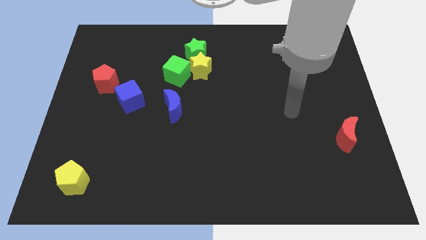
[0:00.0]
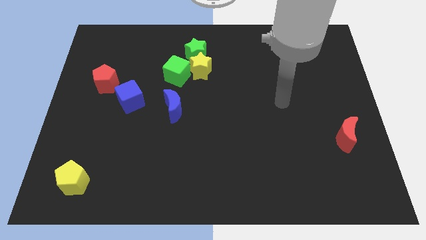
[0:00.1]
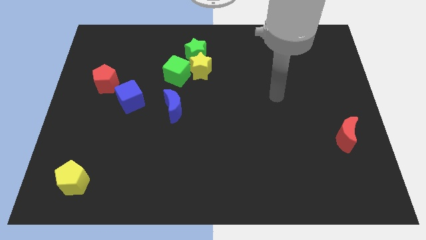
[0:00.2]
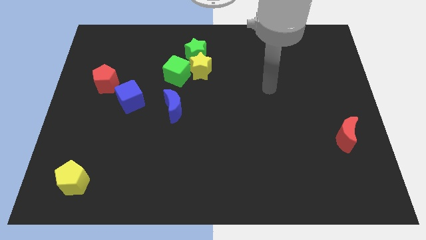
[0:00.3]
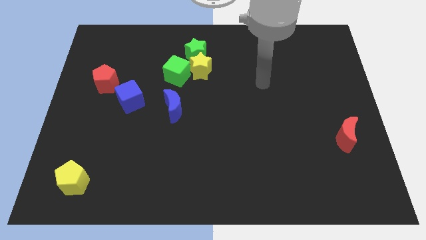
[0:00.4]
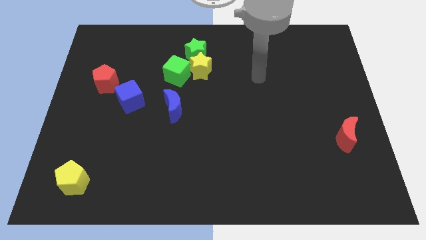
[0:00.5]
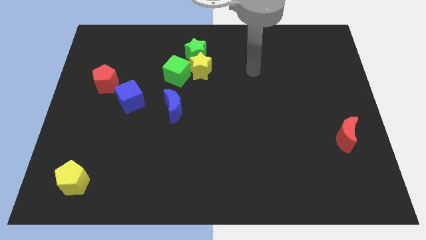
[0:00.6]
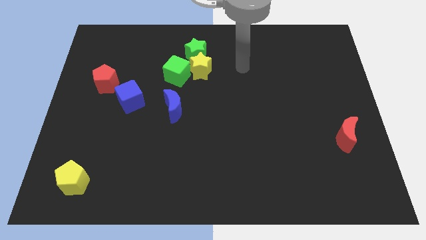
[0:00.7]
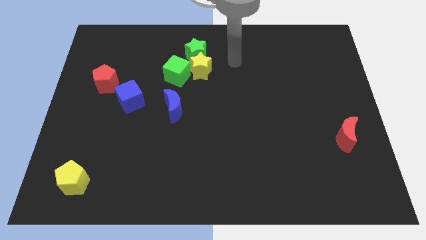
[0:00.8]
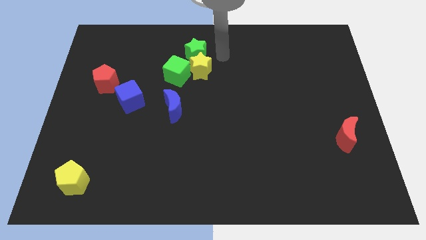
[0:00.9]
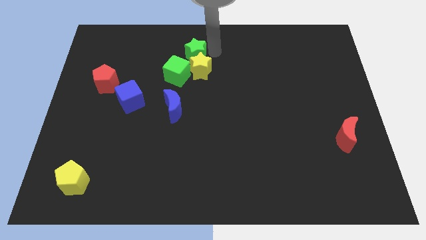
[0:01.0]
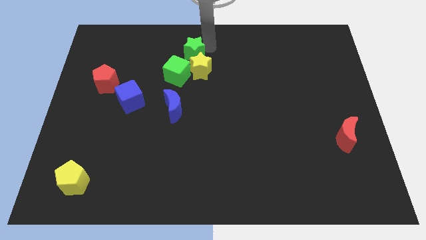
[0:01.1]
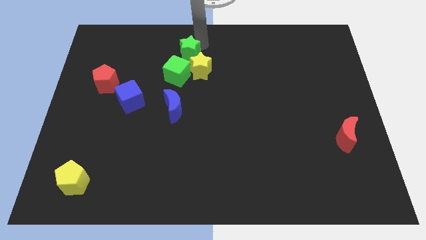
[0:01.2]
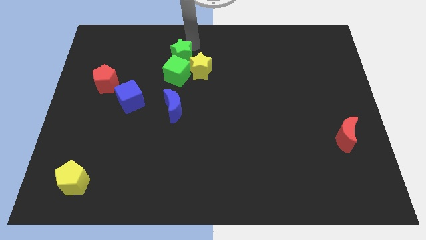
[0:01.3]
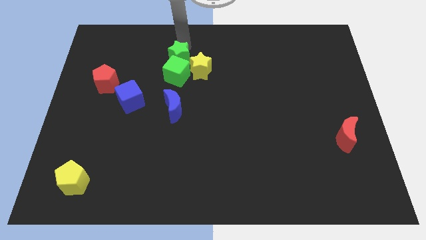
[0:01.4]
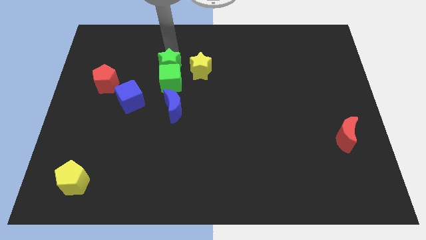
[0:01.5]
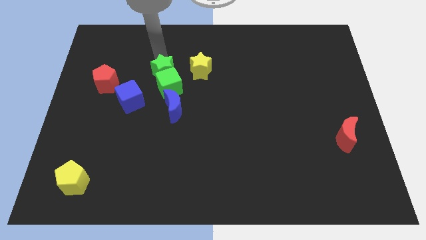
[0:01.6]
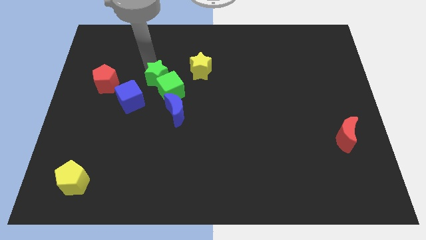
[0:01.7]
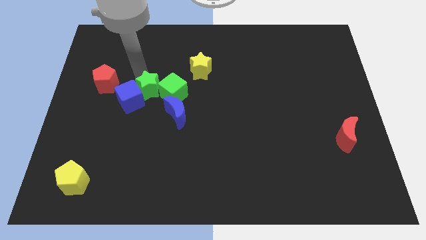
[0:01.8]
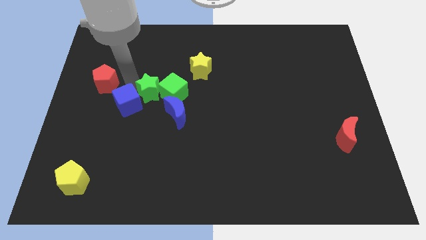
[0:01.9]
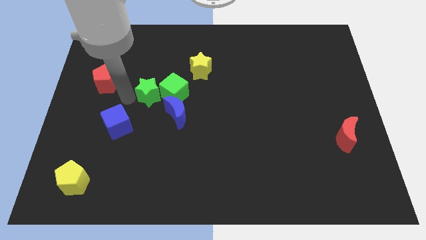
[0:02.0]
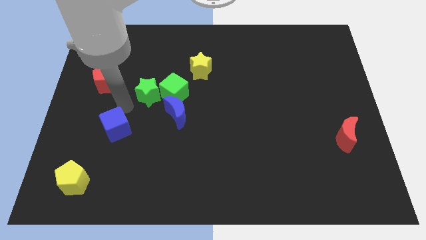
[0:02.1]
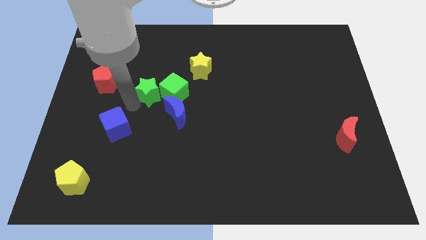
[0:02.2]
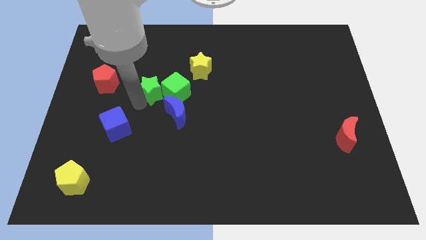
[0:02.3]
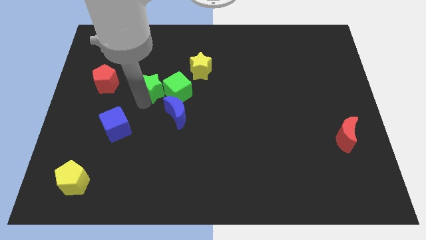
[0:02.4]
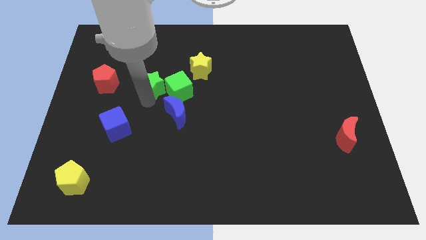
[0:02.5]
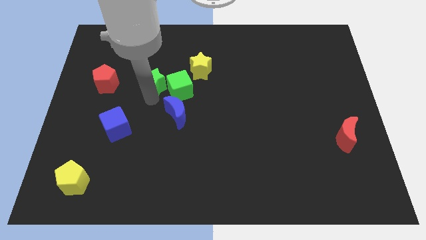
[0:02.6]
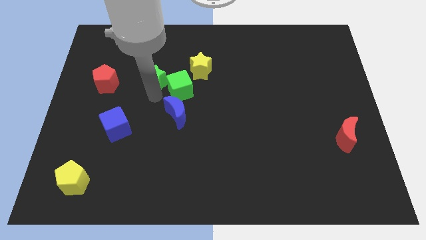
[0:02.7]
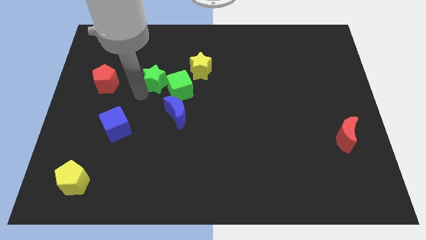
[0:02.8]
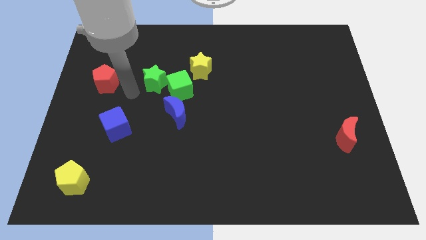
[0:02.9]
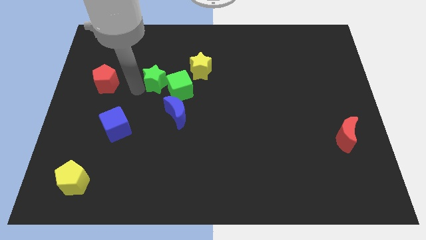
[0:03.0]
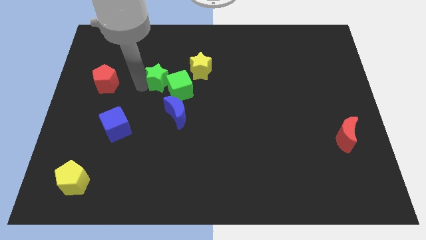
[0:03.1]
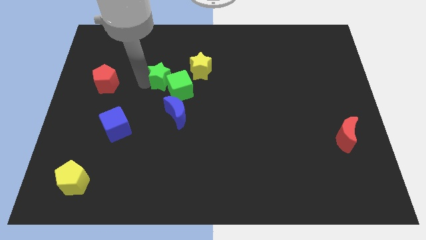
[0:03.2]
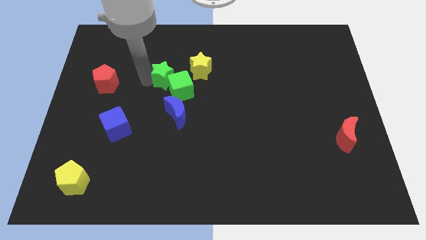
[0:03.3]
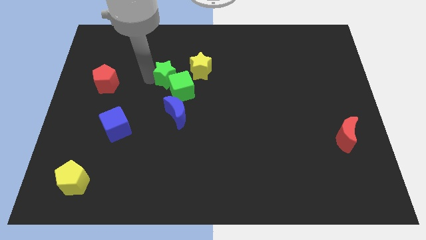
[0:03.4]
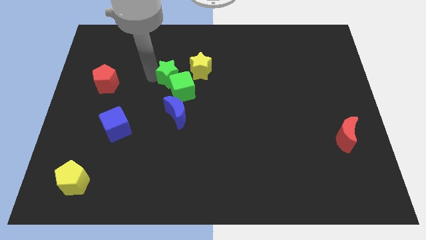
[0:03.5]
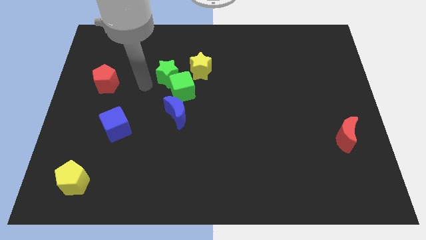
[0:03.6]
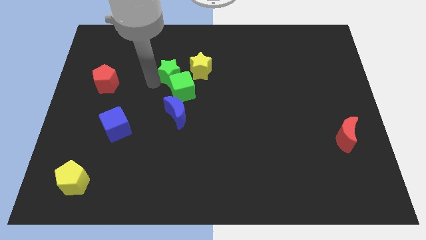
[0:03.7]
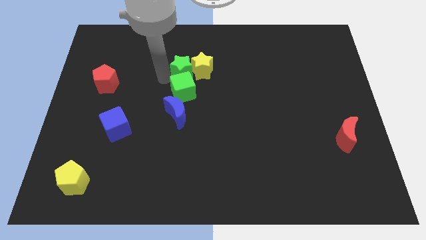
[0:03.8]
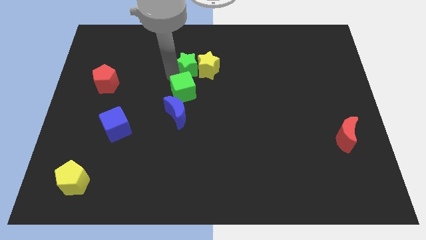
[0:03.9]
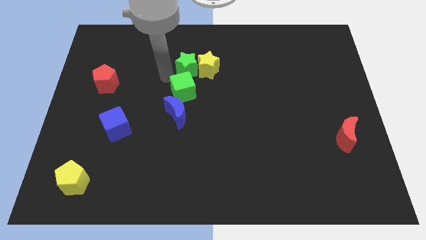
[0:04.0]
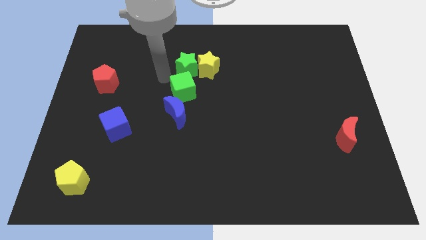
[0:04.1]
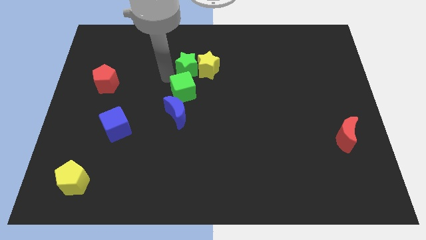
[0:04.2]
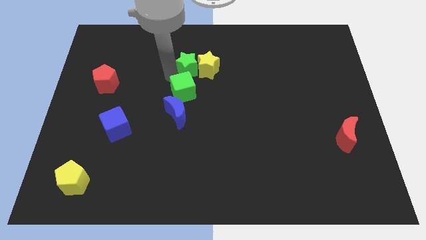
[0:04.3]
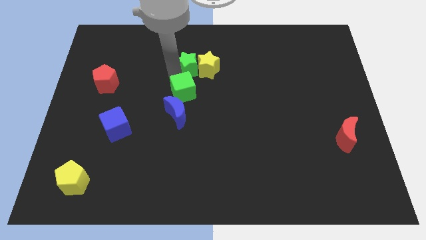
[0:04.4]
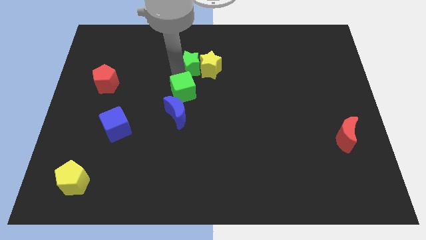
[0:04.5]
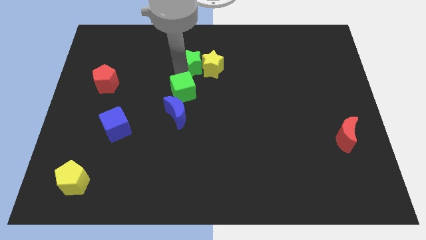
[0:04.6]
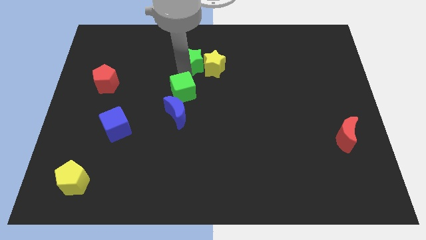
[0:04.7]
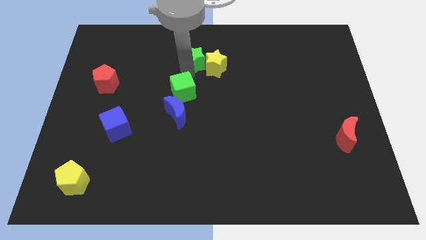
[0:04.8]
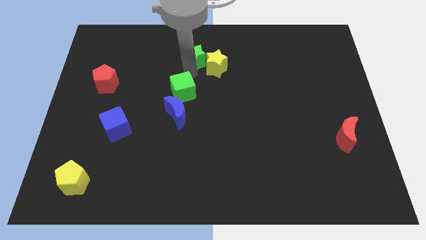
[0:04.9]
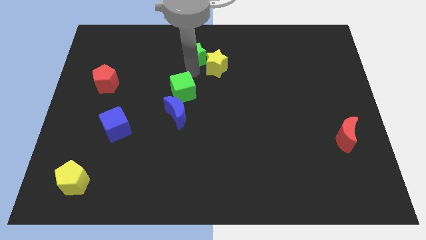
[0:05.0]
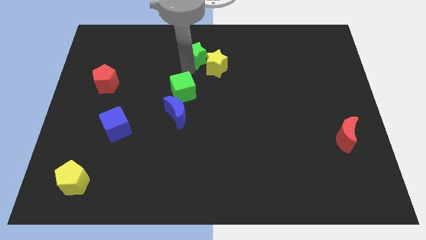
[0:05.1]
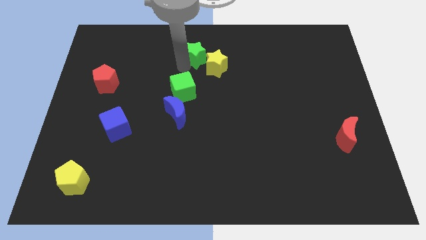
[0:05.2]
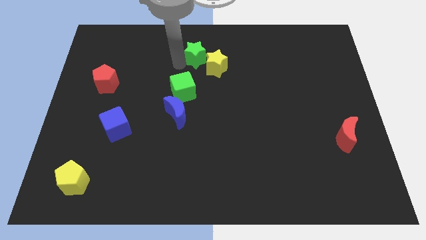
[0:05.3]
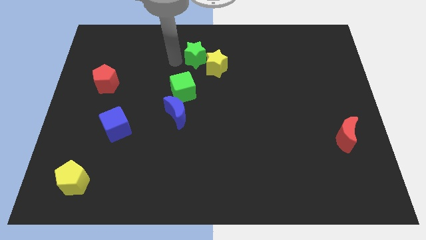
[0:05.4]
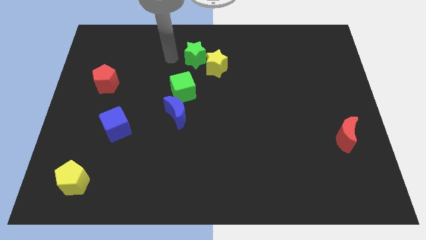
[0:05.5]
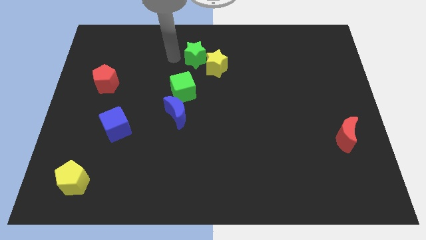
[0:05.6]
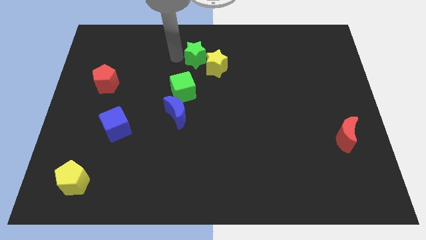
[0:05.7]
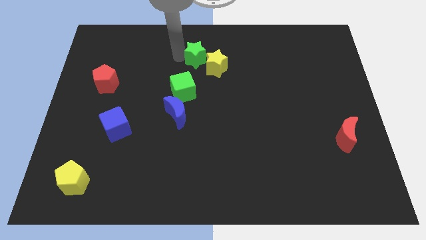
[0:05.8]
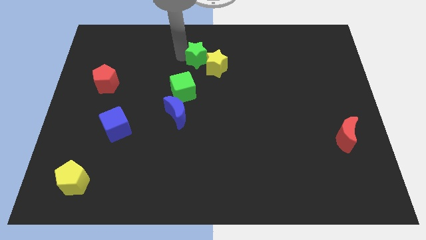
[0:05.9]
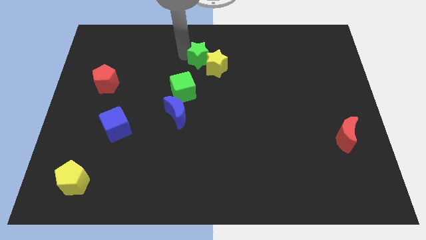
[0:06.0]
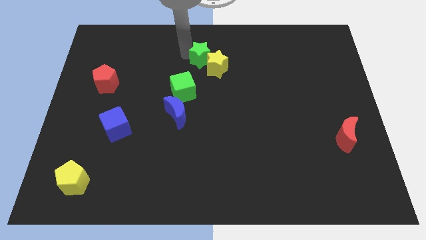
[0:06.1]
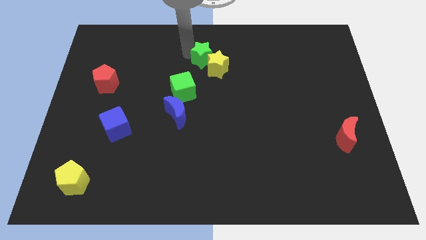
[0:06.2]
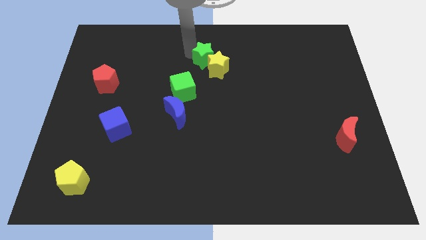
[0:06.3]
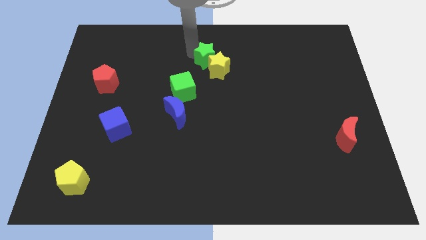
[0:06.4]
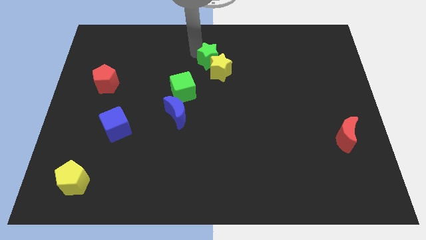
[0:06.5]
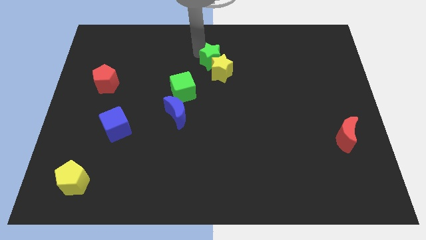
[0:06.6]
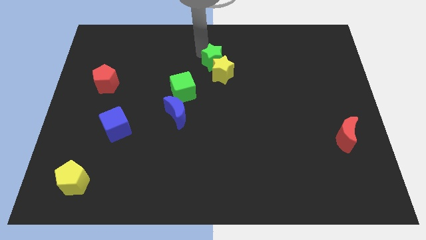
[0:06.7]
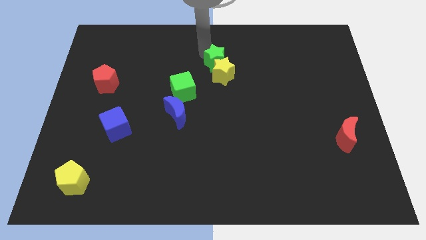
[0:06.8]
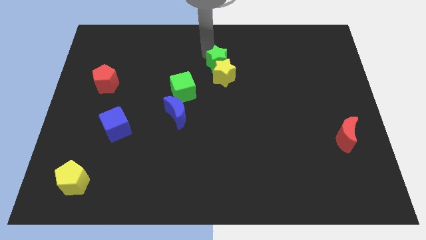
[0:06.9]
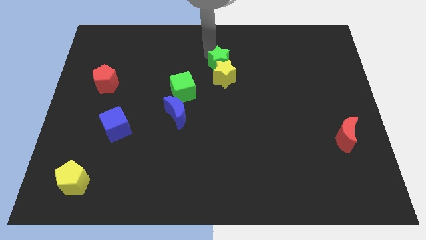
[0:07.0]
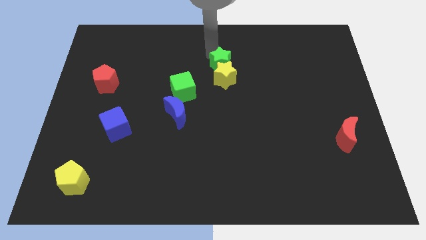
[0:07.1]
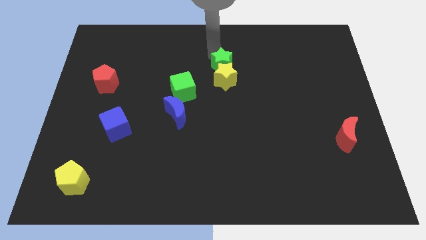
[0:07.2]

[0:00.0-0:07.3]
move the green star slightly downwards and to the right diagonally

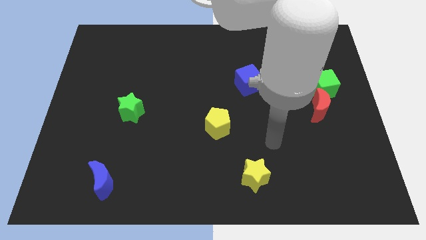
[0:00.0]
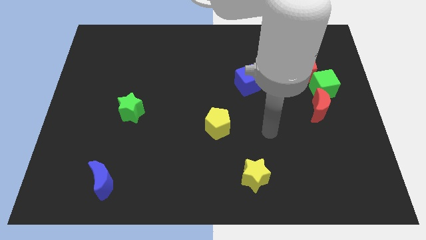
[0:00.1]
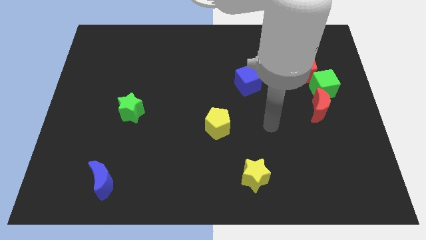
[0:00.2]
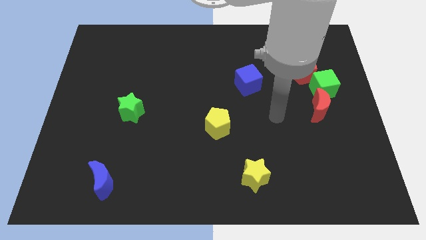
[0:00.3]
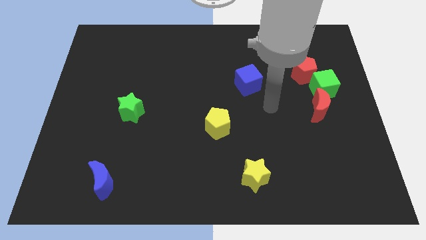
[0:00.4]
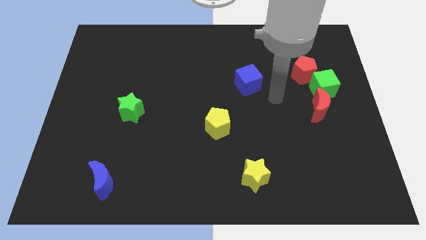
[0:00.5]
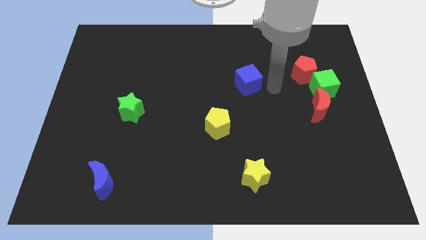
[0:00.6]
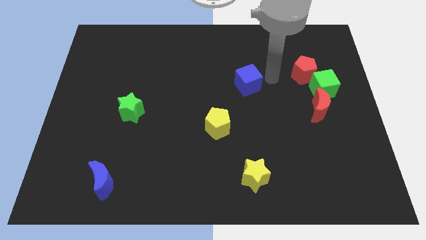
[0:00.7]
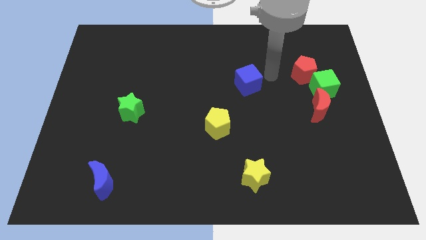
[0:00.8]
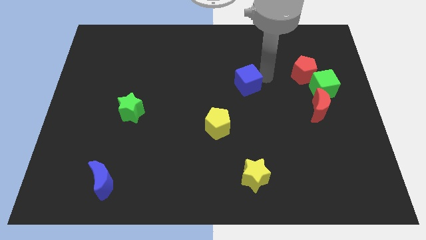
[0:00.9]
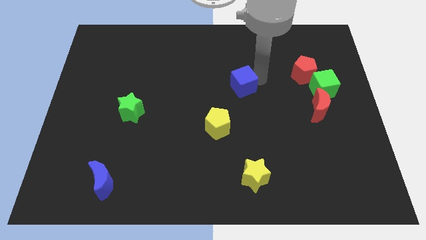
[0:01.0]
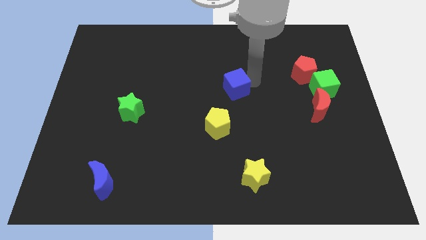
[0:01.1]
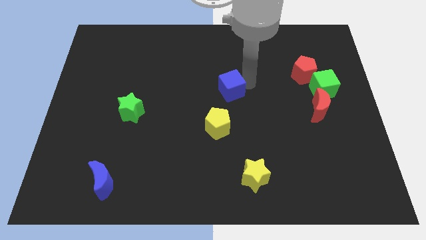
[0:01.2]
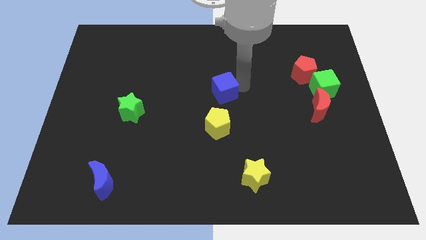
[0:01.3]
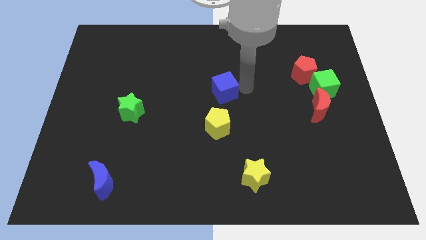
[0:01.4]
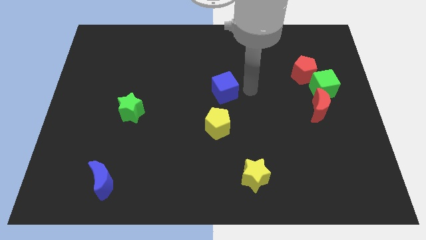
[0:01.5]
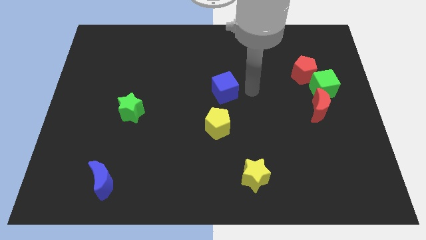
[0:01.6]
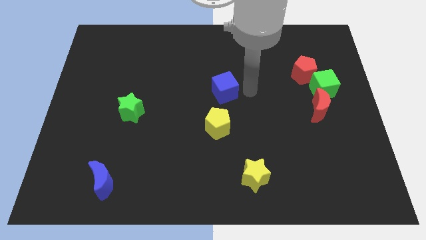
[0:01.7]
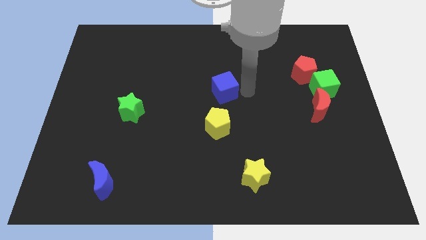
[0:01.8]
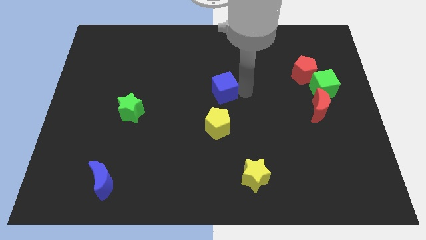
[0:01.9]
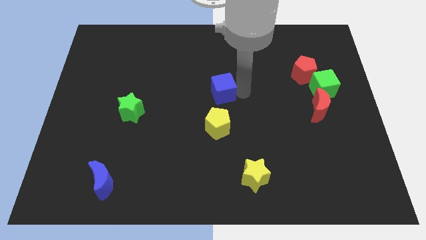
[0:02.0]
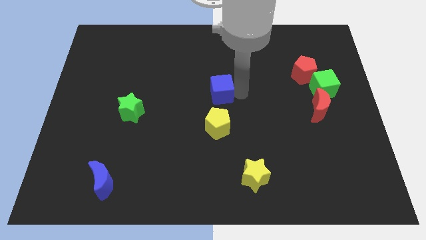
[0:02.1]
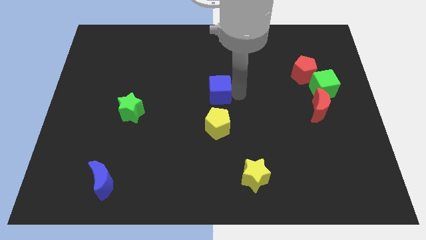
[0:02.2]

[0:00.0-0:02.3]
slightly slide the blue cube left
